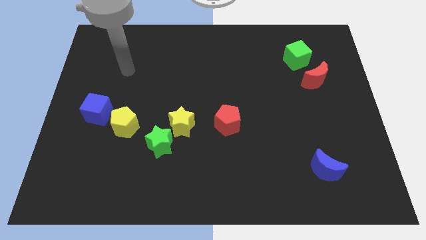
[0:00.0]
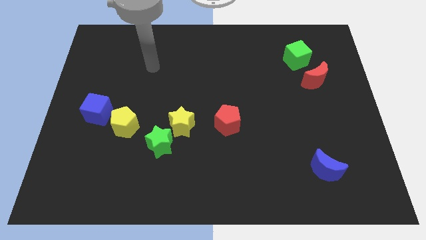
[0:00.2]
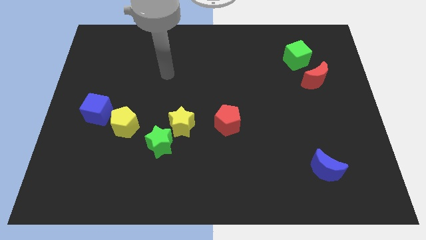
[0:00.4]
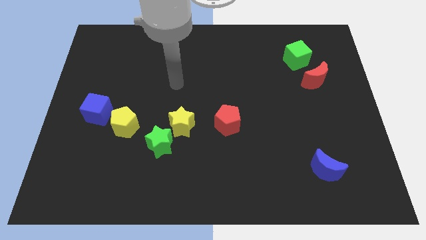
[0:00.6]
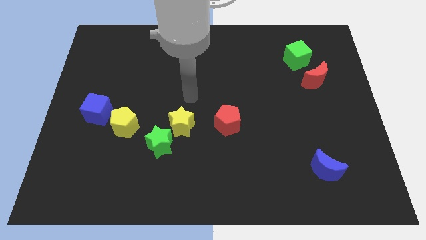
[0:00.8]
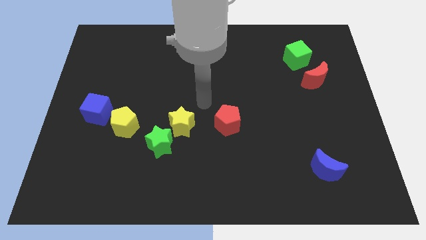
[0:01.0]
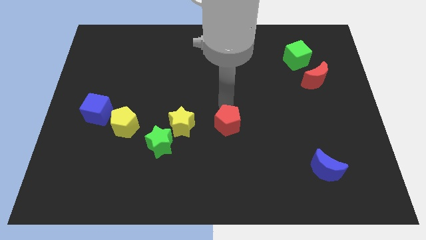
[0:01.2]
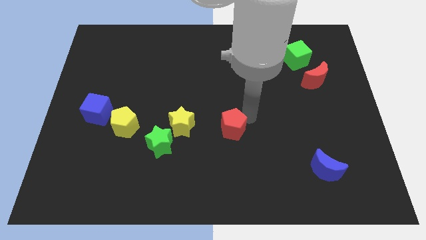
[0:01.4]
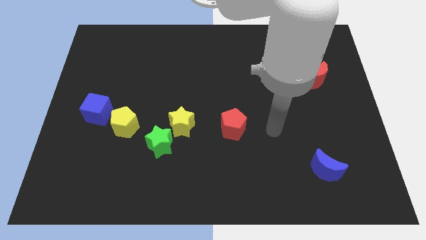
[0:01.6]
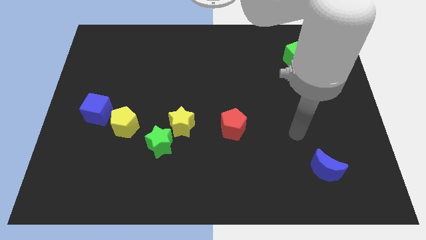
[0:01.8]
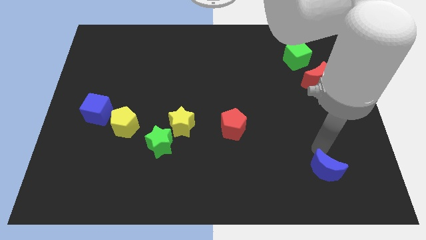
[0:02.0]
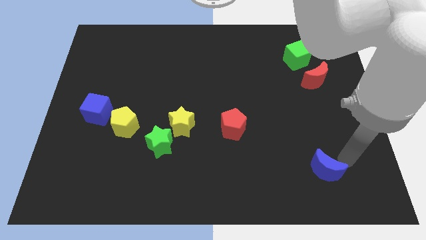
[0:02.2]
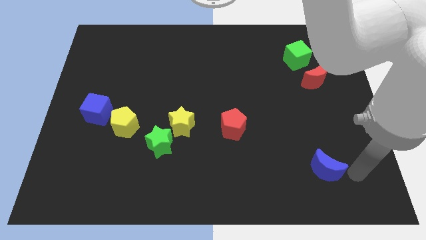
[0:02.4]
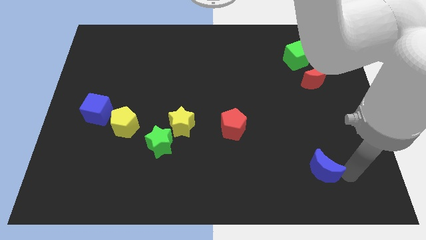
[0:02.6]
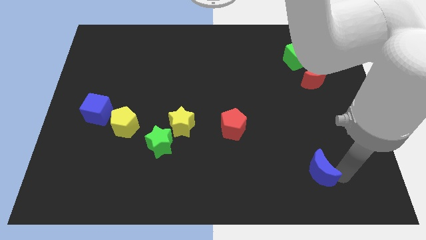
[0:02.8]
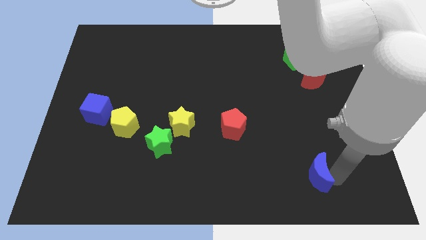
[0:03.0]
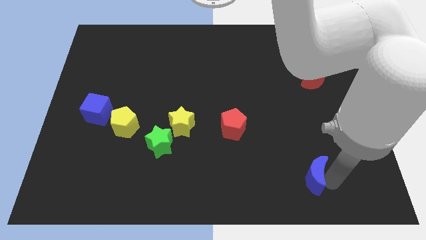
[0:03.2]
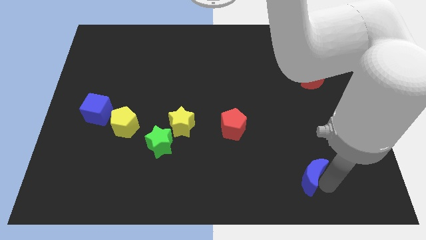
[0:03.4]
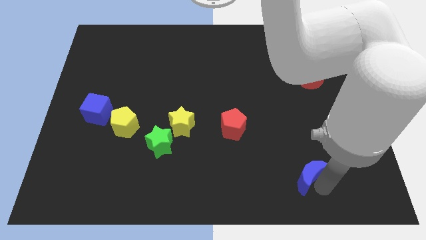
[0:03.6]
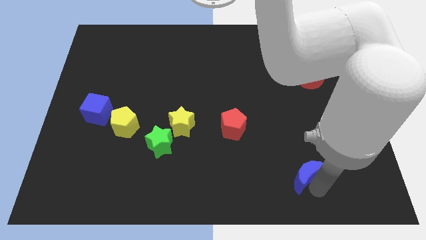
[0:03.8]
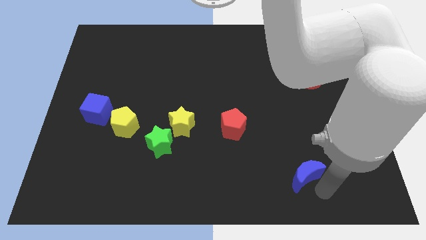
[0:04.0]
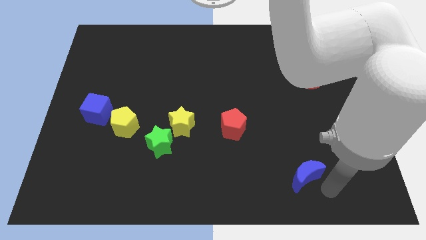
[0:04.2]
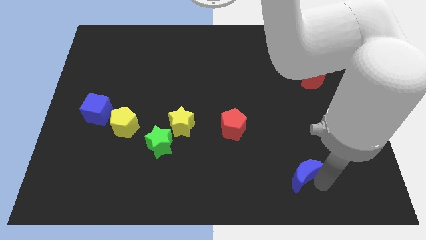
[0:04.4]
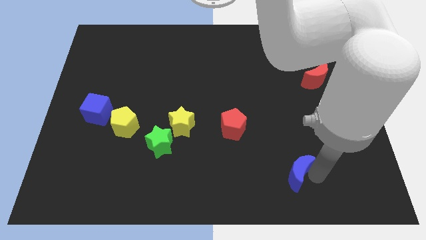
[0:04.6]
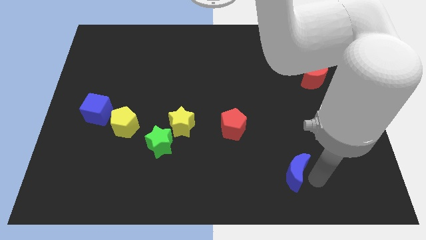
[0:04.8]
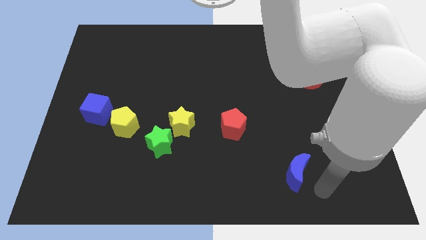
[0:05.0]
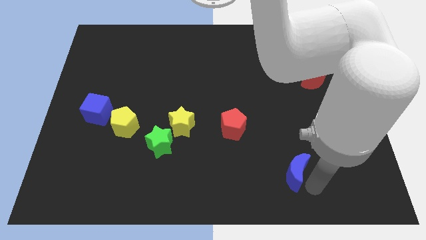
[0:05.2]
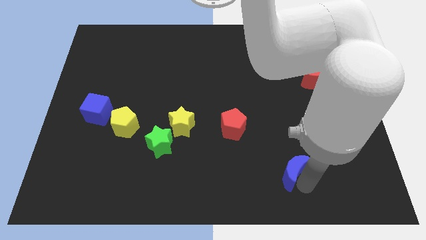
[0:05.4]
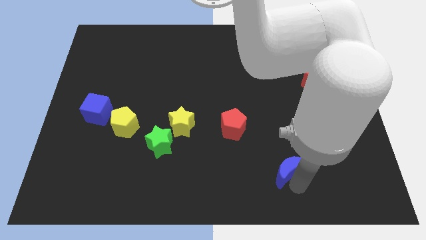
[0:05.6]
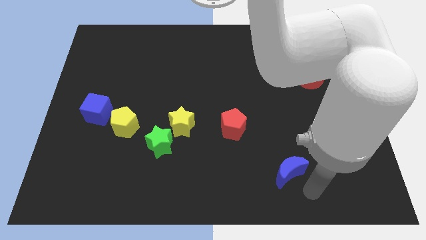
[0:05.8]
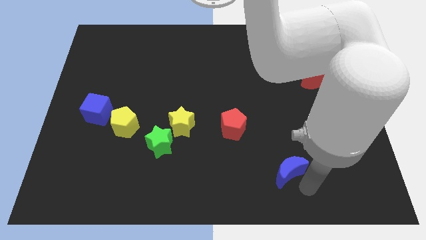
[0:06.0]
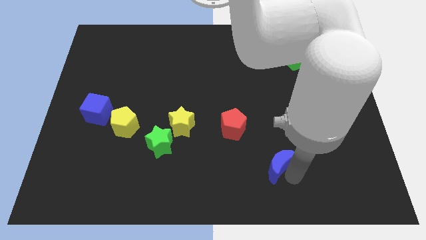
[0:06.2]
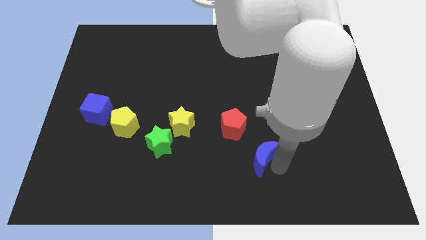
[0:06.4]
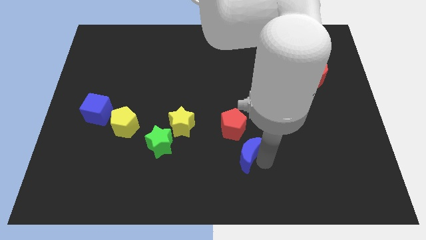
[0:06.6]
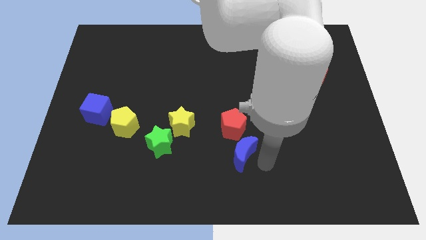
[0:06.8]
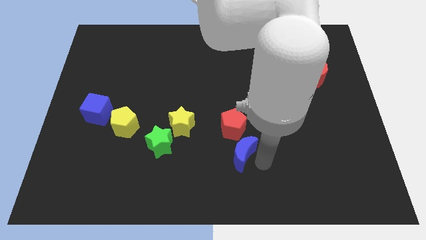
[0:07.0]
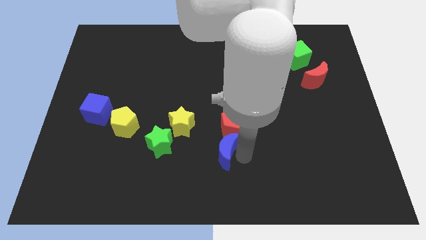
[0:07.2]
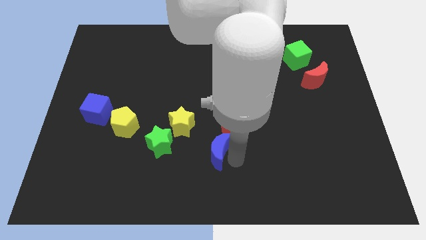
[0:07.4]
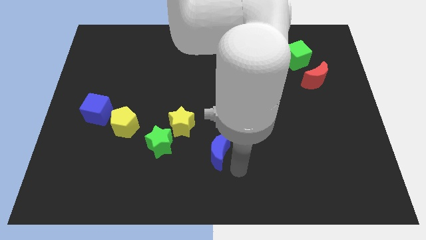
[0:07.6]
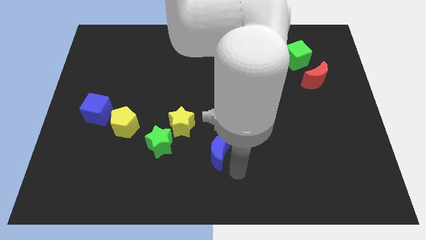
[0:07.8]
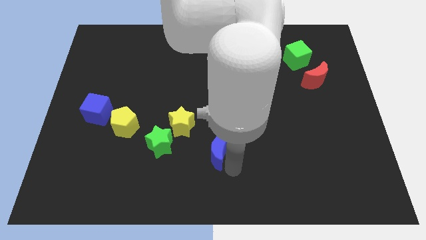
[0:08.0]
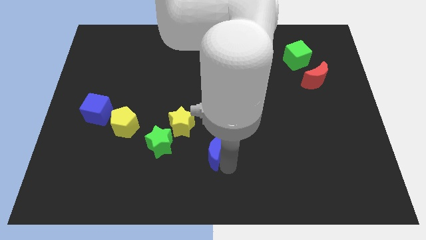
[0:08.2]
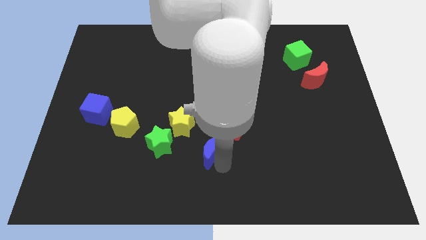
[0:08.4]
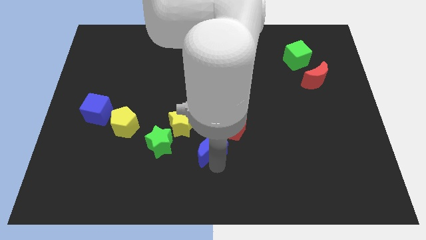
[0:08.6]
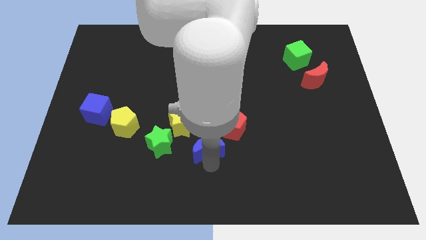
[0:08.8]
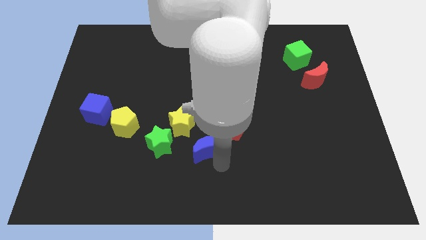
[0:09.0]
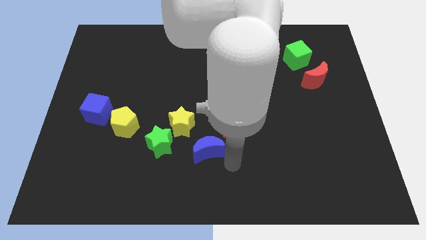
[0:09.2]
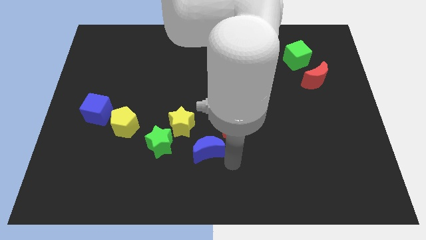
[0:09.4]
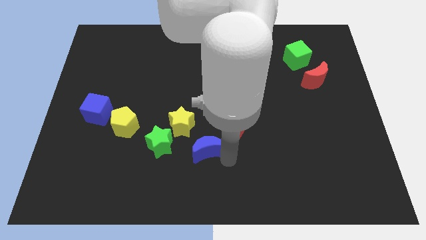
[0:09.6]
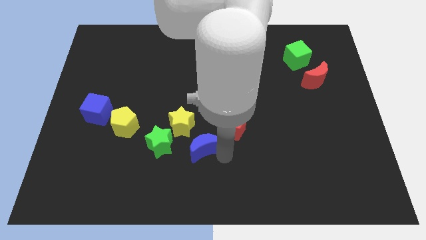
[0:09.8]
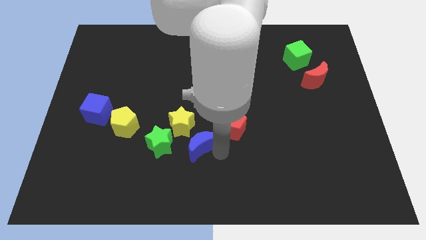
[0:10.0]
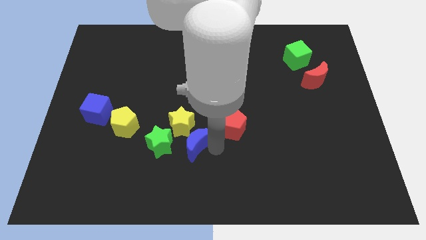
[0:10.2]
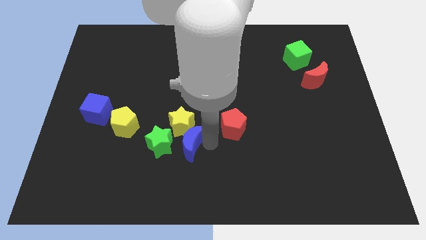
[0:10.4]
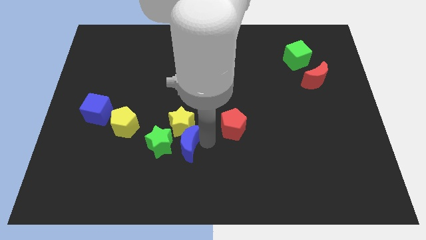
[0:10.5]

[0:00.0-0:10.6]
move the blue moon close to the green star

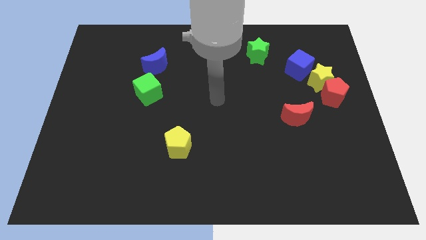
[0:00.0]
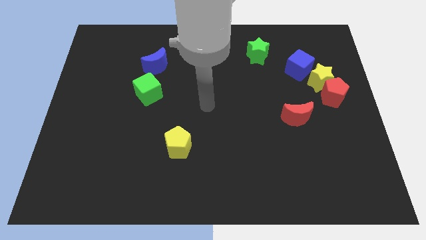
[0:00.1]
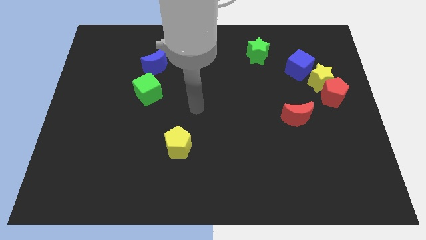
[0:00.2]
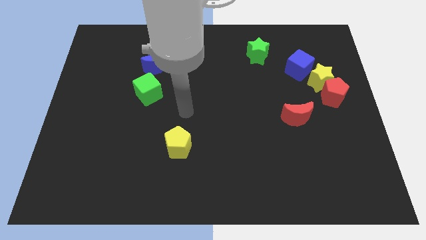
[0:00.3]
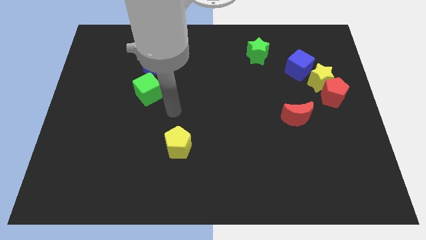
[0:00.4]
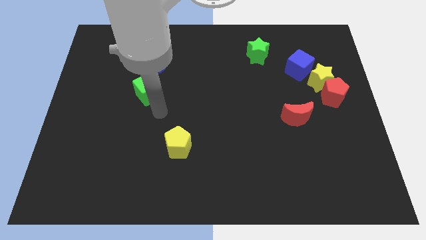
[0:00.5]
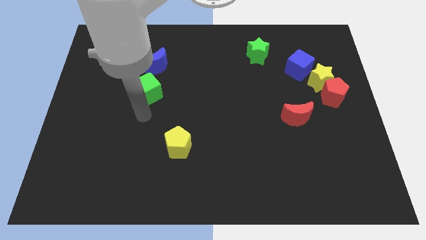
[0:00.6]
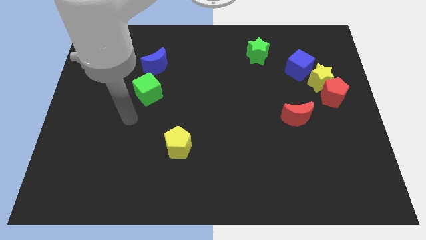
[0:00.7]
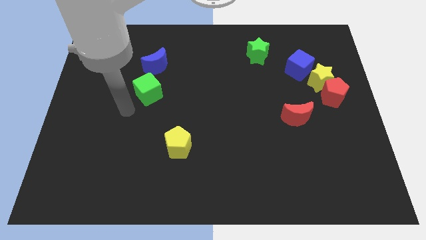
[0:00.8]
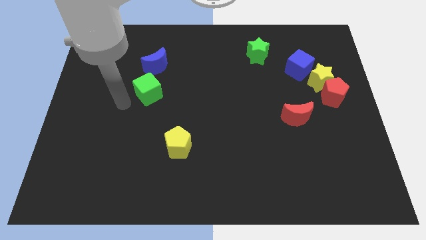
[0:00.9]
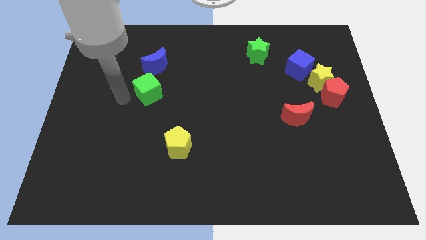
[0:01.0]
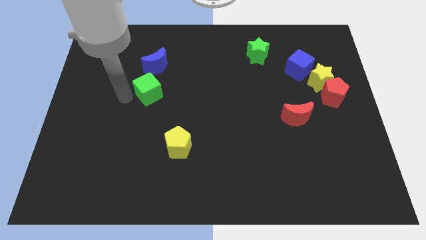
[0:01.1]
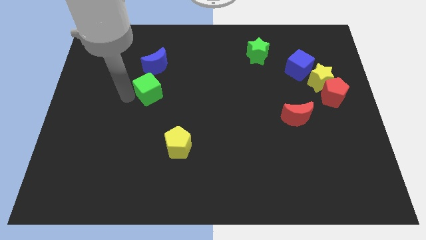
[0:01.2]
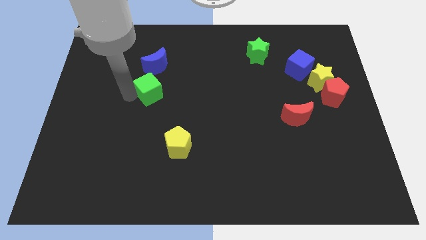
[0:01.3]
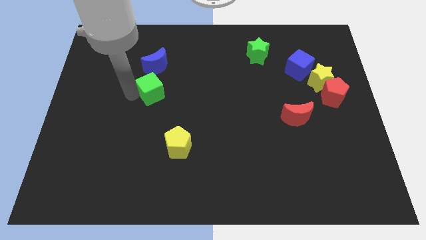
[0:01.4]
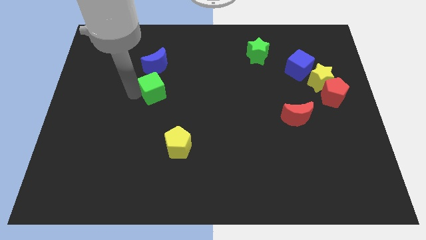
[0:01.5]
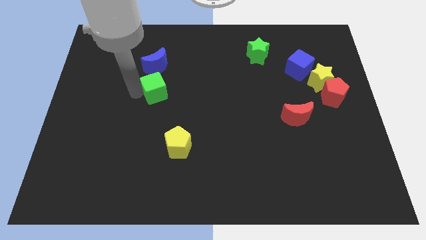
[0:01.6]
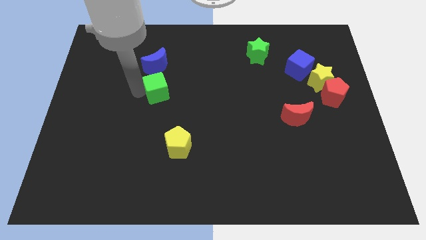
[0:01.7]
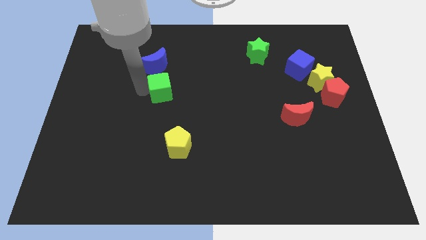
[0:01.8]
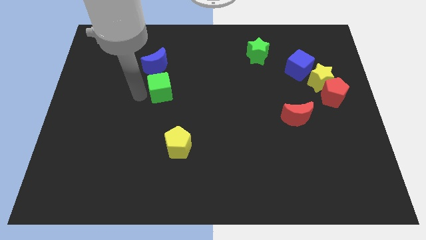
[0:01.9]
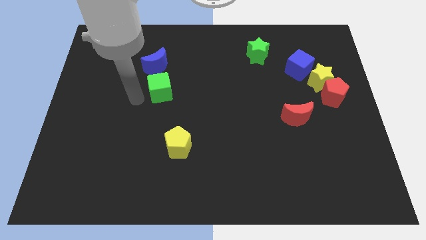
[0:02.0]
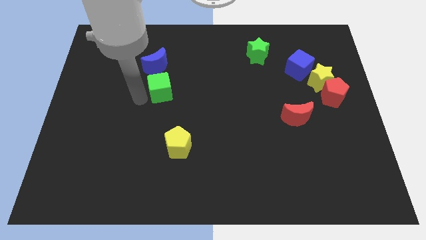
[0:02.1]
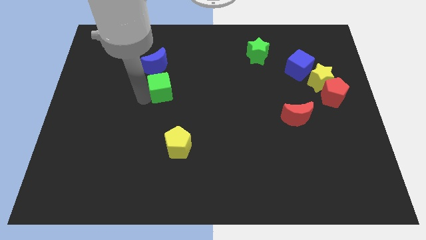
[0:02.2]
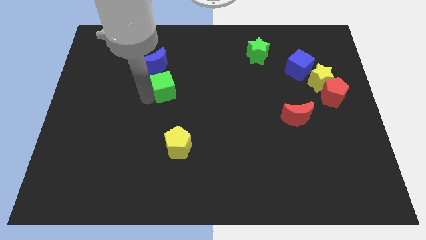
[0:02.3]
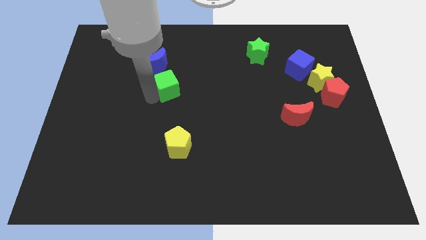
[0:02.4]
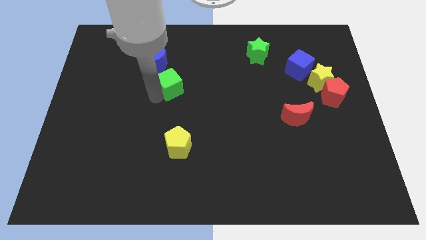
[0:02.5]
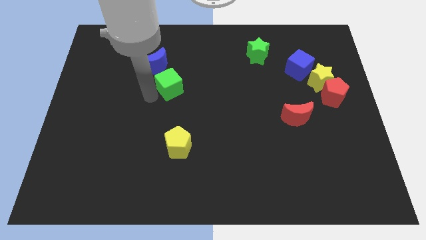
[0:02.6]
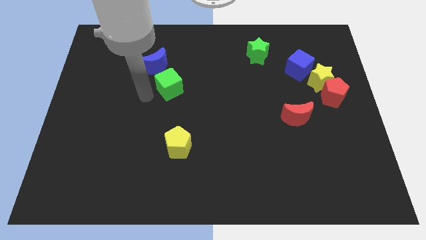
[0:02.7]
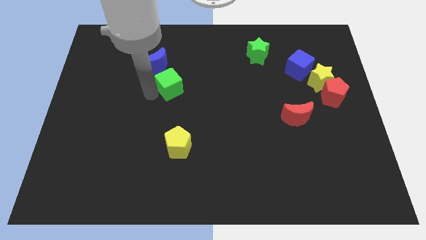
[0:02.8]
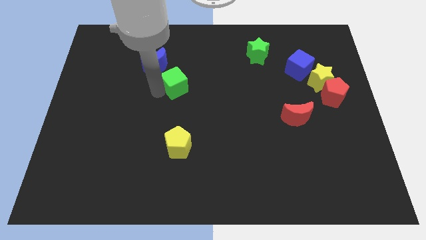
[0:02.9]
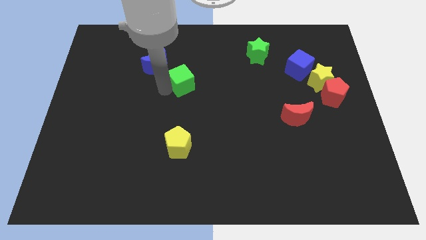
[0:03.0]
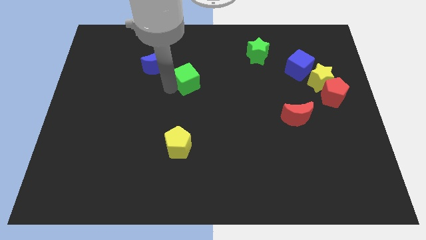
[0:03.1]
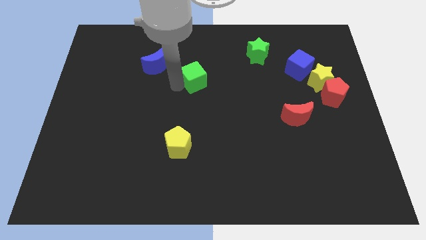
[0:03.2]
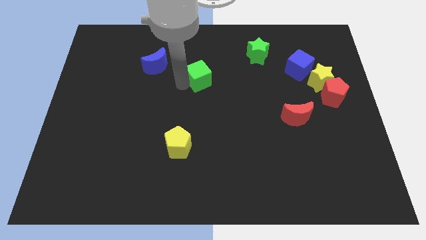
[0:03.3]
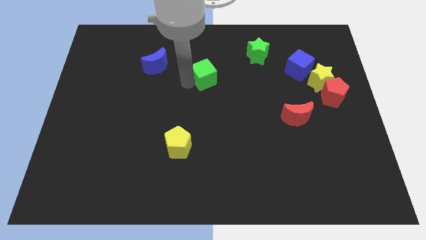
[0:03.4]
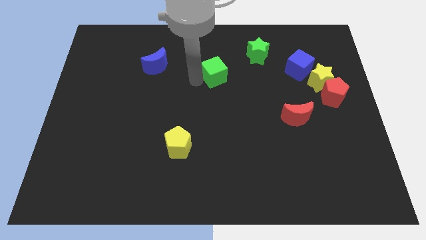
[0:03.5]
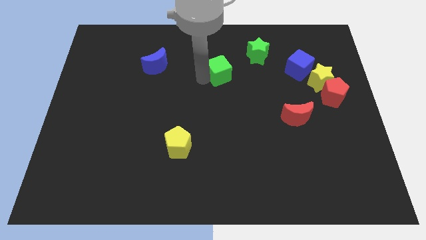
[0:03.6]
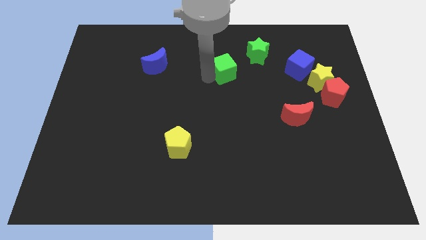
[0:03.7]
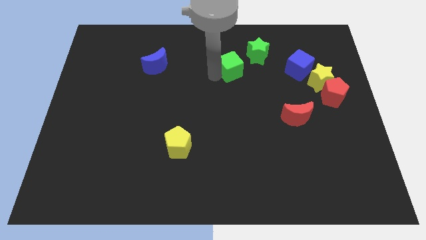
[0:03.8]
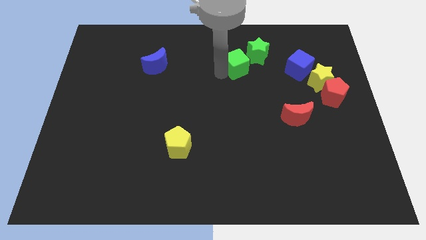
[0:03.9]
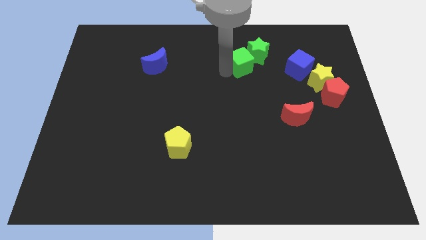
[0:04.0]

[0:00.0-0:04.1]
move the green cube close to the green star
